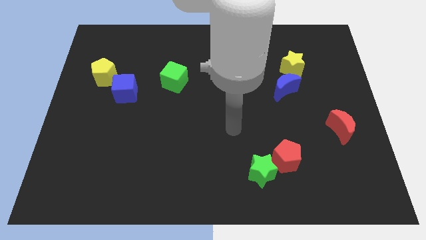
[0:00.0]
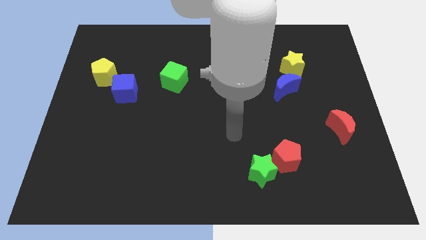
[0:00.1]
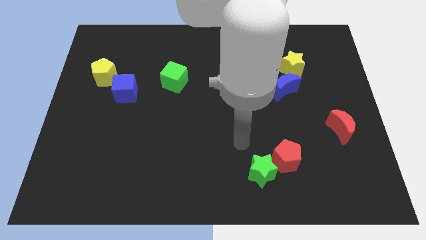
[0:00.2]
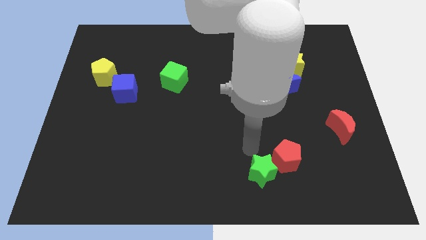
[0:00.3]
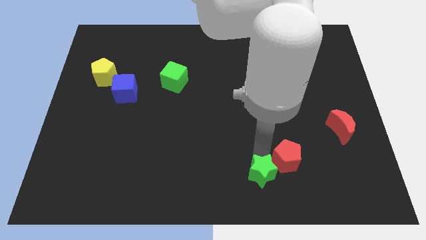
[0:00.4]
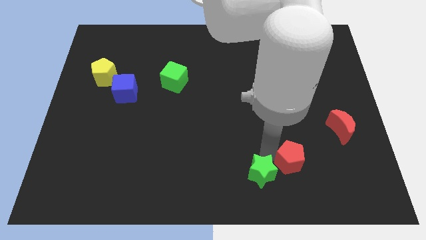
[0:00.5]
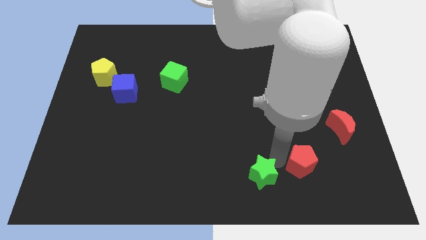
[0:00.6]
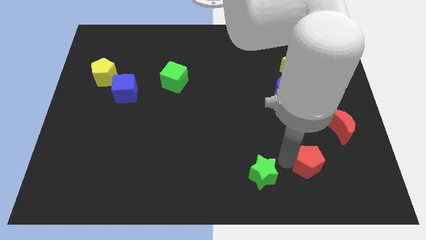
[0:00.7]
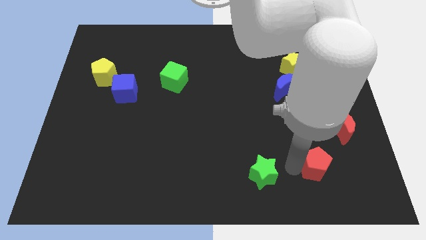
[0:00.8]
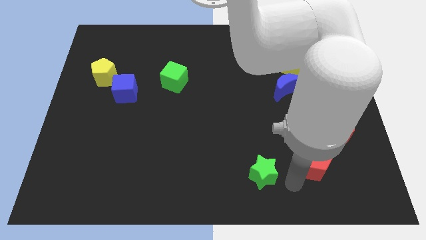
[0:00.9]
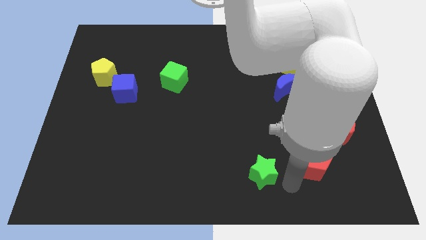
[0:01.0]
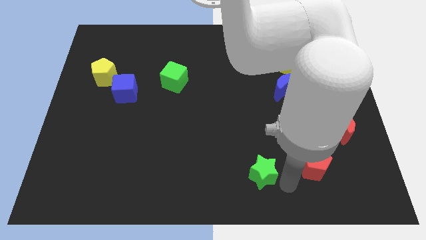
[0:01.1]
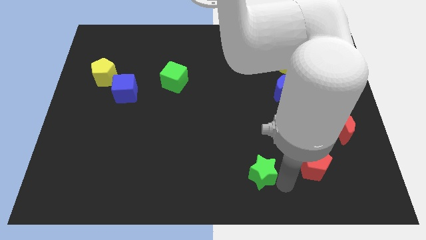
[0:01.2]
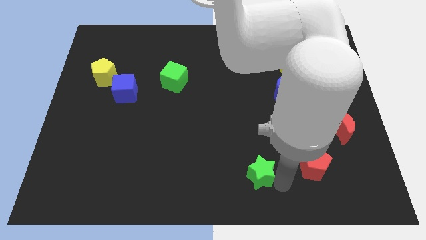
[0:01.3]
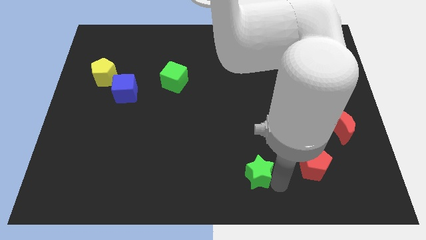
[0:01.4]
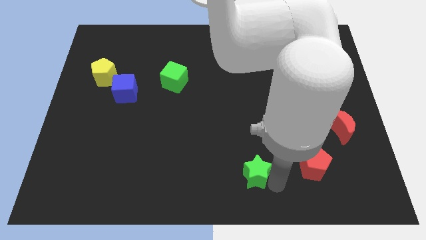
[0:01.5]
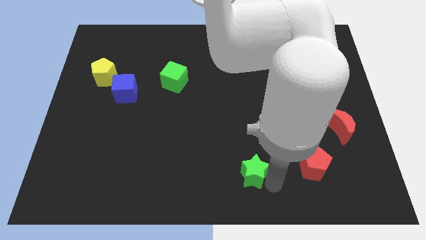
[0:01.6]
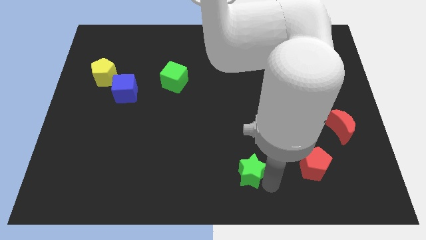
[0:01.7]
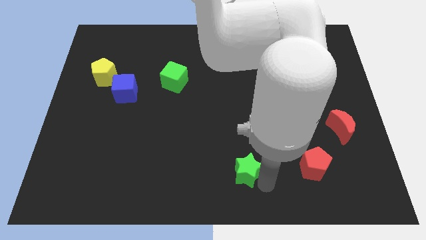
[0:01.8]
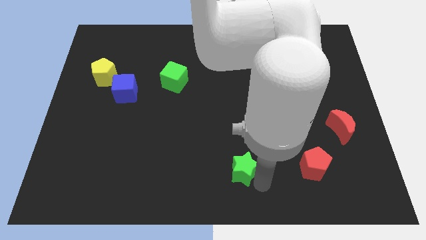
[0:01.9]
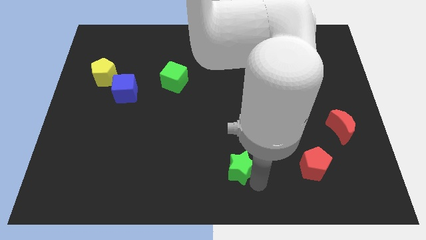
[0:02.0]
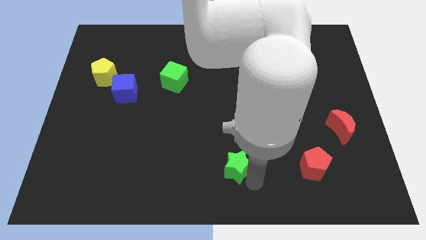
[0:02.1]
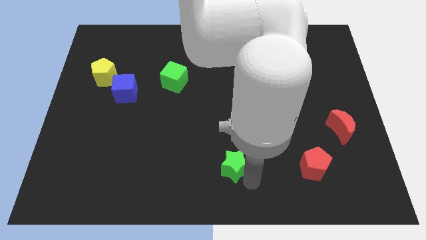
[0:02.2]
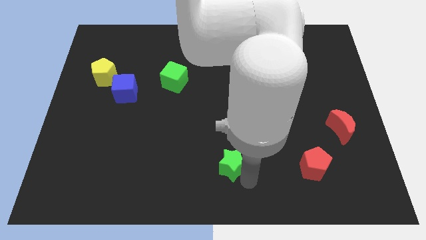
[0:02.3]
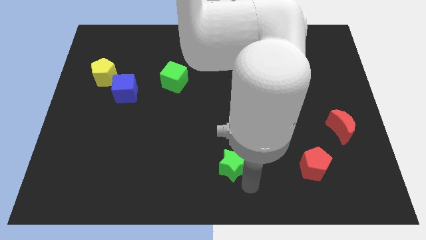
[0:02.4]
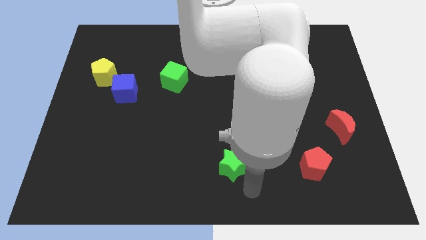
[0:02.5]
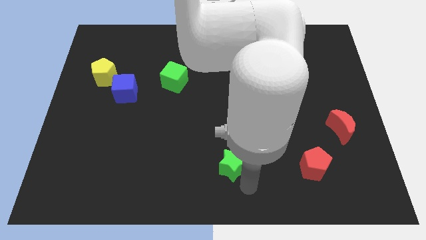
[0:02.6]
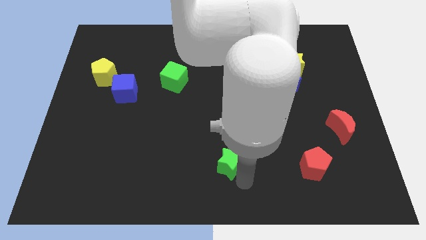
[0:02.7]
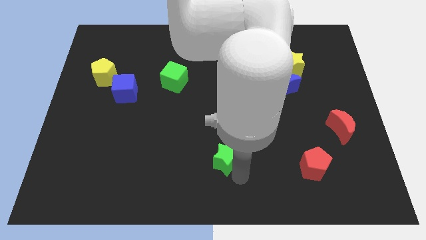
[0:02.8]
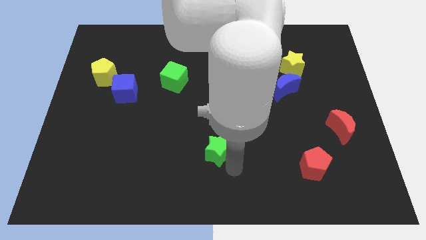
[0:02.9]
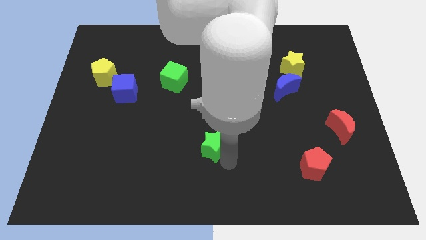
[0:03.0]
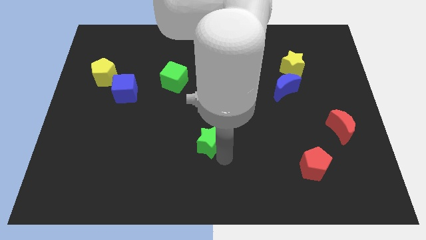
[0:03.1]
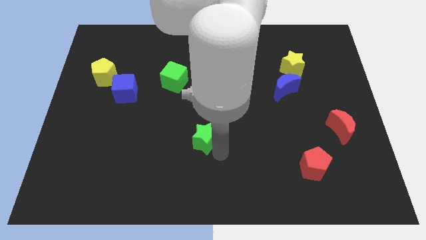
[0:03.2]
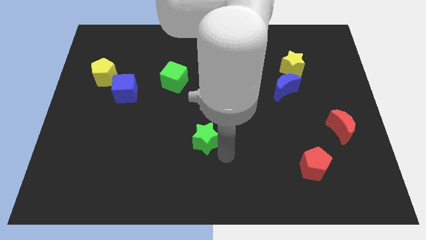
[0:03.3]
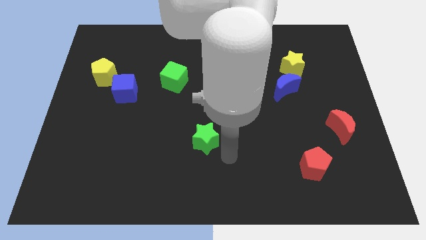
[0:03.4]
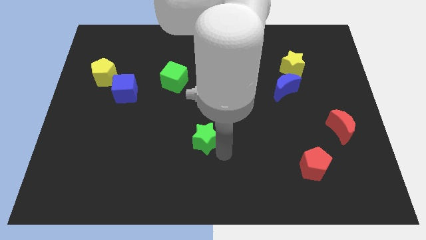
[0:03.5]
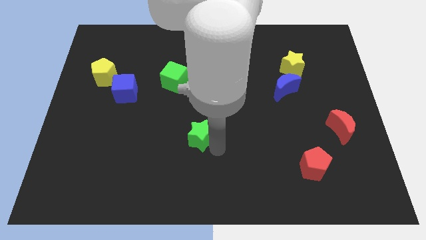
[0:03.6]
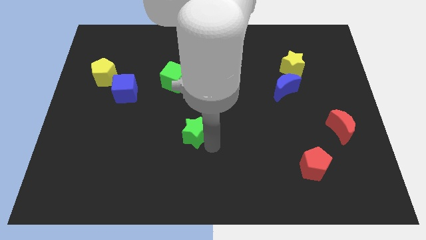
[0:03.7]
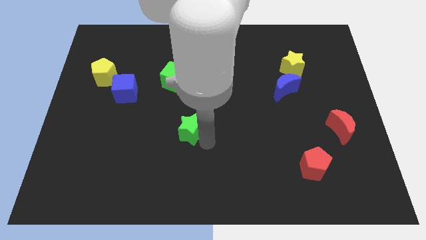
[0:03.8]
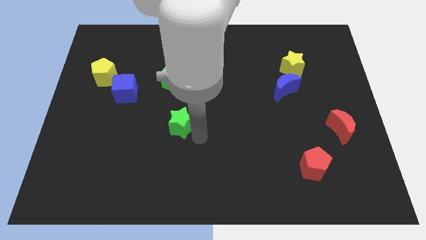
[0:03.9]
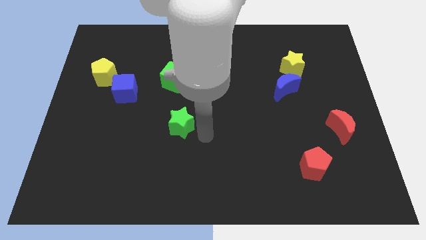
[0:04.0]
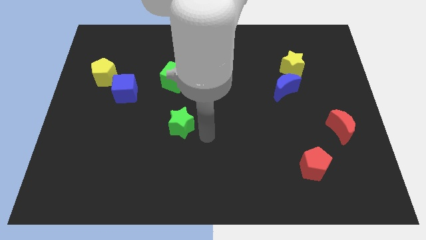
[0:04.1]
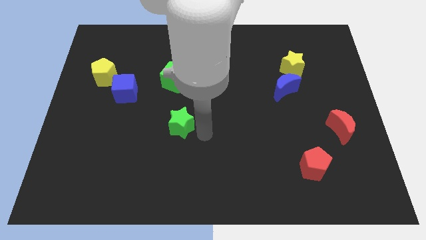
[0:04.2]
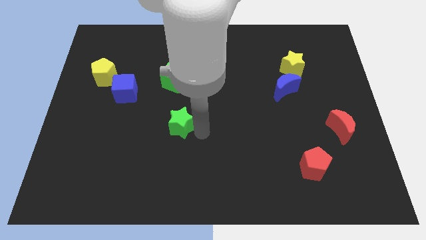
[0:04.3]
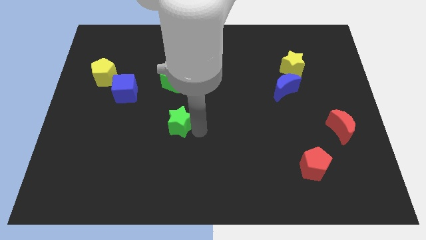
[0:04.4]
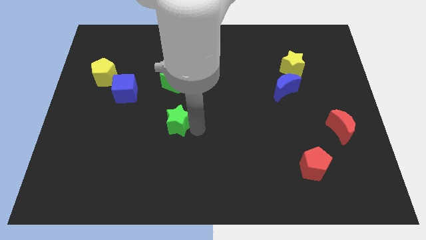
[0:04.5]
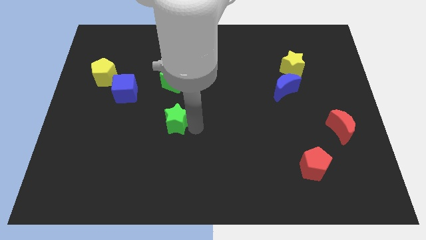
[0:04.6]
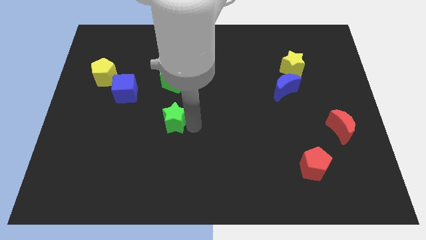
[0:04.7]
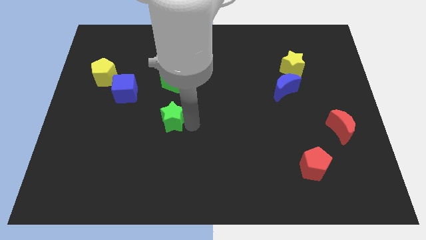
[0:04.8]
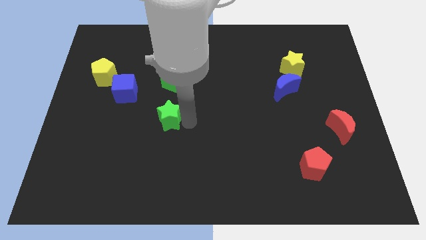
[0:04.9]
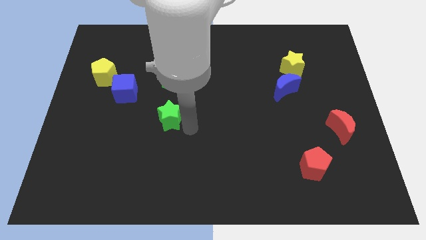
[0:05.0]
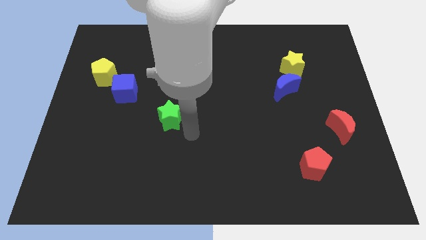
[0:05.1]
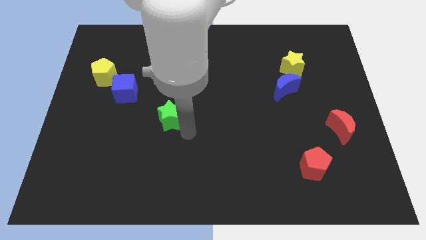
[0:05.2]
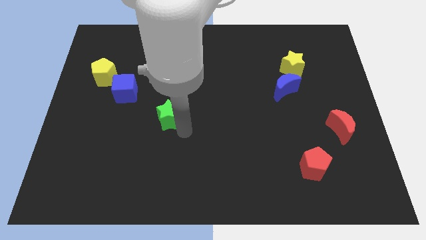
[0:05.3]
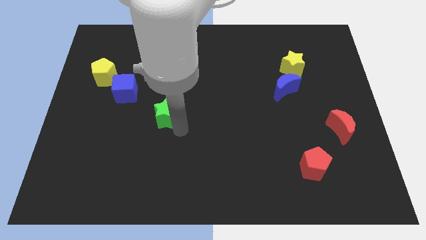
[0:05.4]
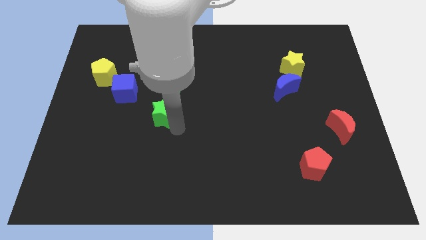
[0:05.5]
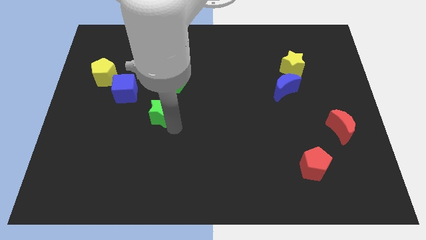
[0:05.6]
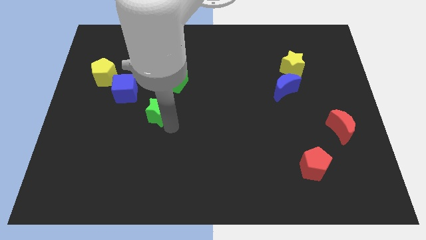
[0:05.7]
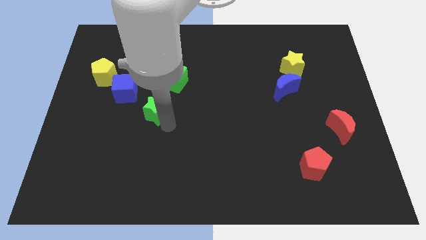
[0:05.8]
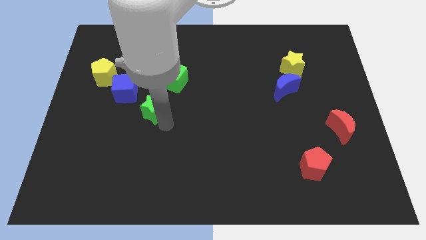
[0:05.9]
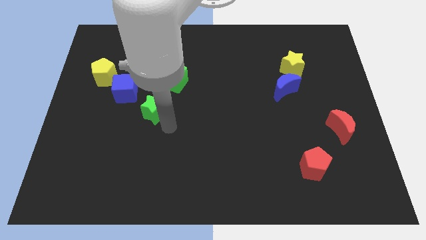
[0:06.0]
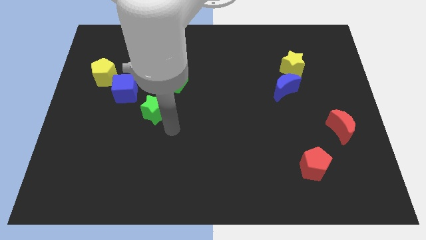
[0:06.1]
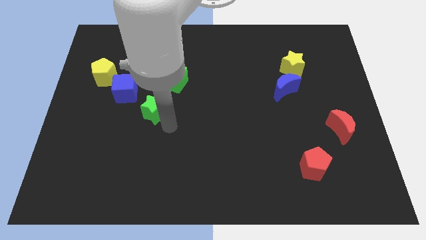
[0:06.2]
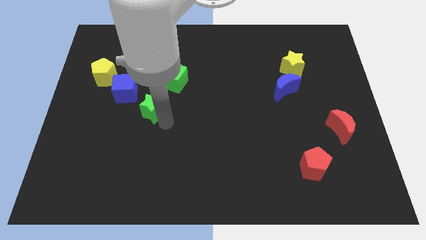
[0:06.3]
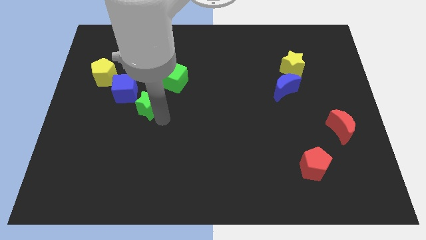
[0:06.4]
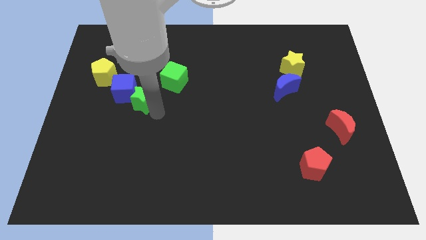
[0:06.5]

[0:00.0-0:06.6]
put the green star towards the blue cube

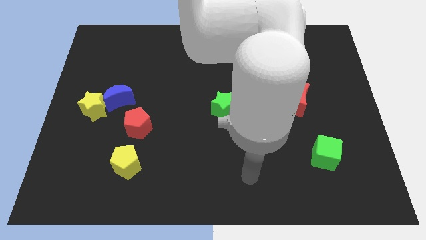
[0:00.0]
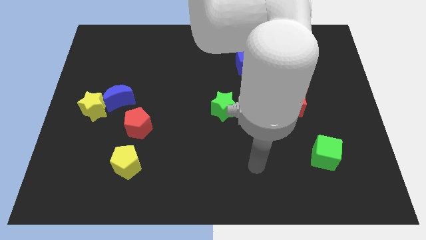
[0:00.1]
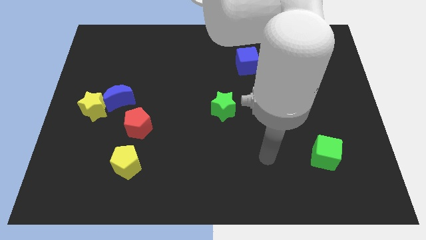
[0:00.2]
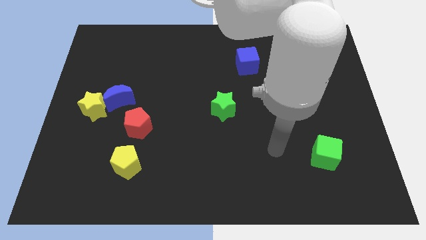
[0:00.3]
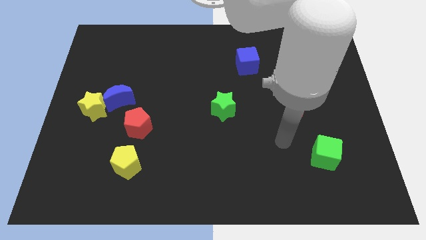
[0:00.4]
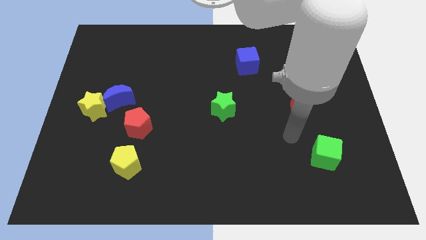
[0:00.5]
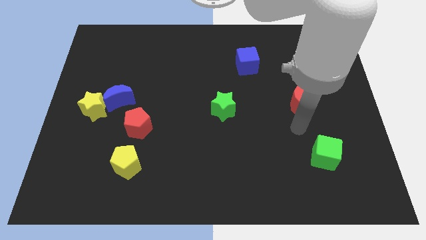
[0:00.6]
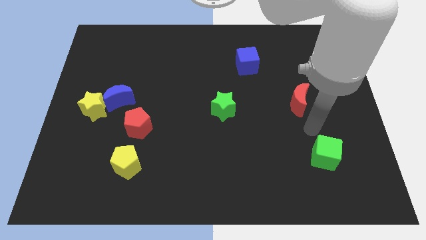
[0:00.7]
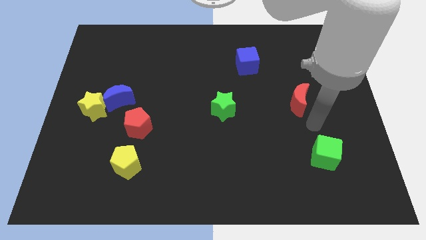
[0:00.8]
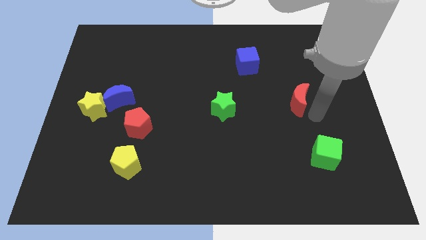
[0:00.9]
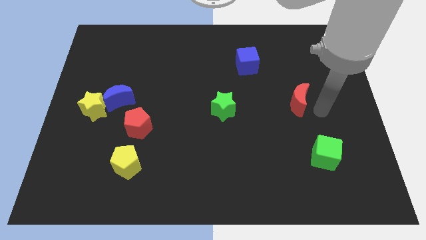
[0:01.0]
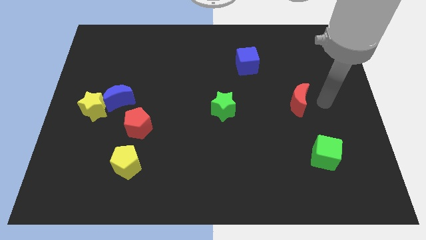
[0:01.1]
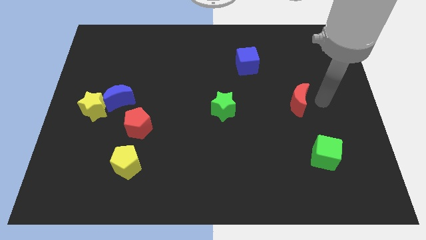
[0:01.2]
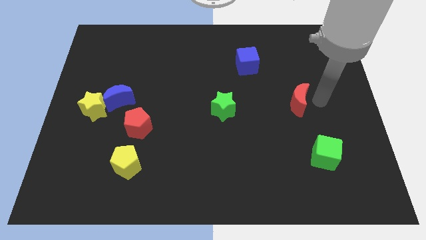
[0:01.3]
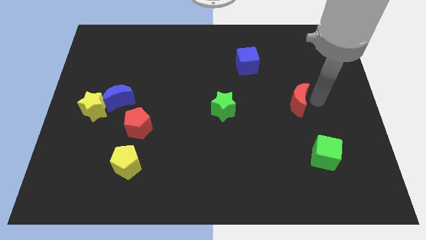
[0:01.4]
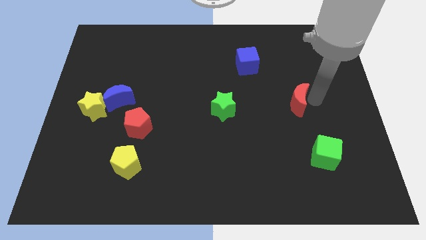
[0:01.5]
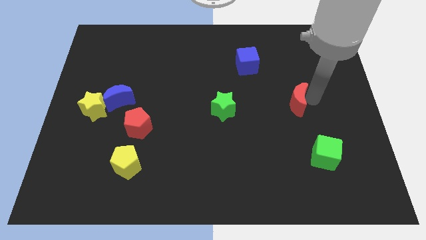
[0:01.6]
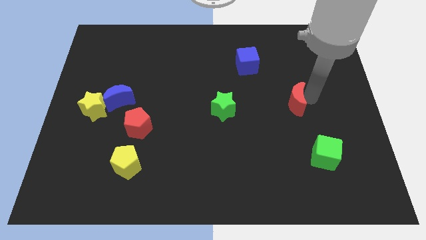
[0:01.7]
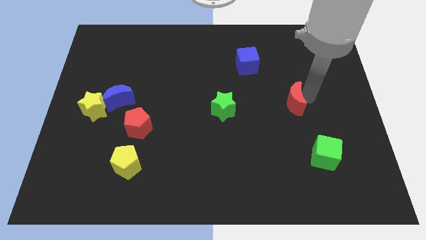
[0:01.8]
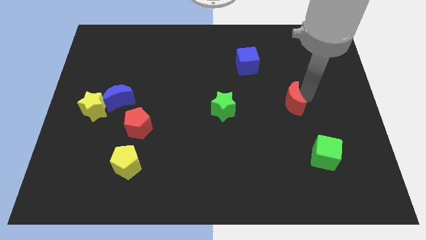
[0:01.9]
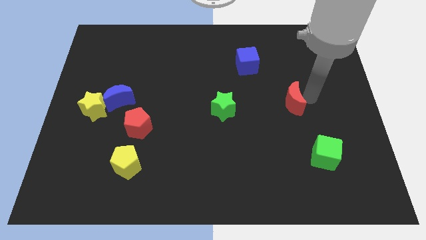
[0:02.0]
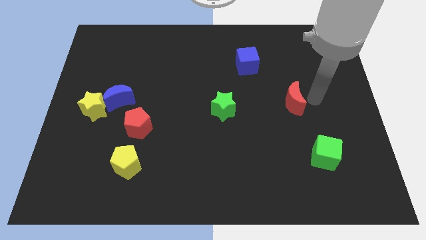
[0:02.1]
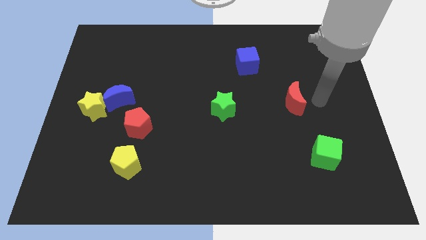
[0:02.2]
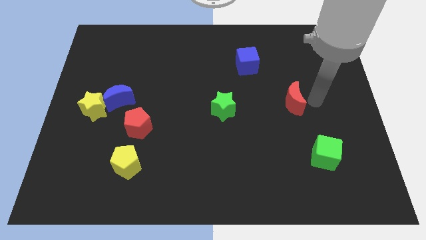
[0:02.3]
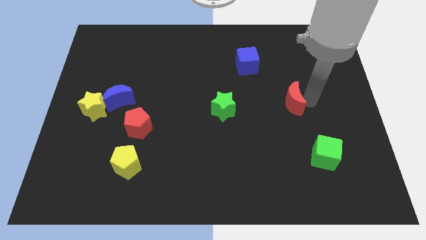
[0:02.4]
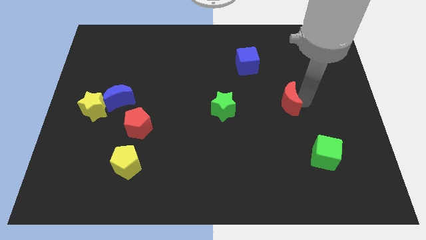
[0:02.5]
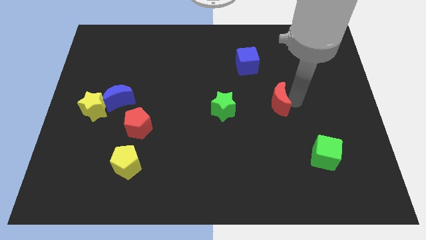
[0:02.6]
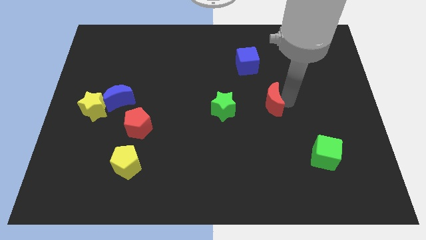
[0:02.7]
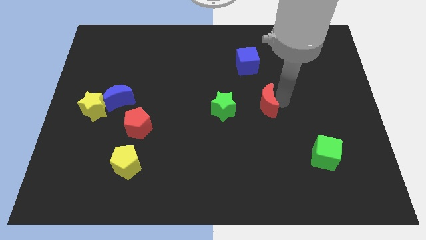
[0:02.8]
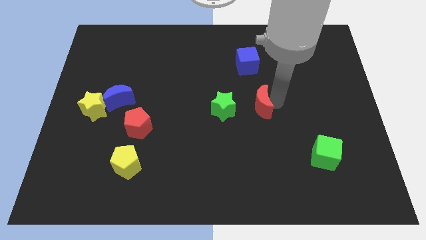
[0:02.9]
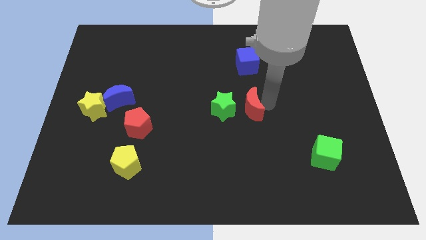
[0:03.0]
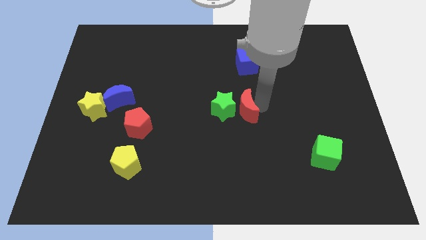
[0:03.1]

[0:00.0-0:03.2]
slide the red moon to the green star
